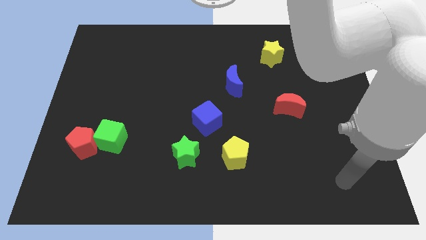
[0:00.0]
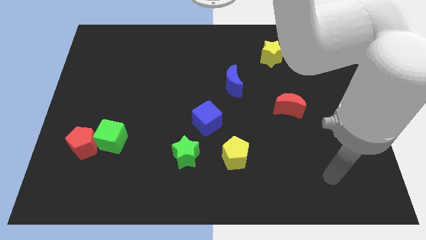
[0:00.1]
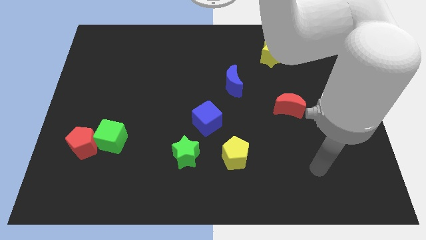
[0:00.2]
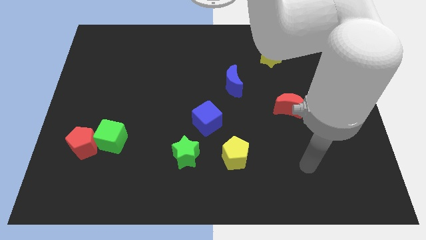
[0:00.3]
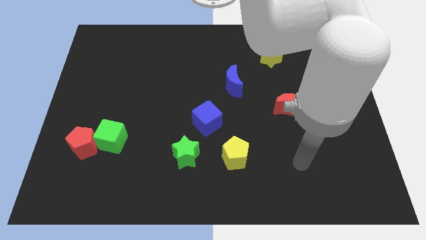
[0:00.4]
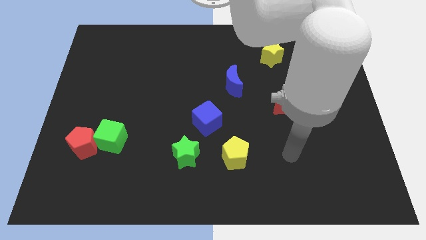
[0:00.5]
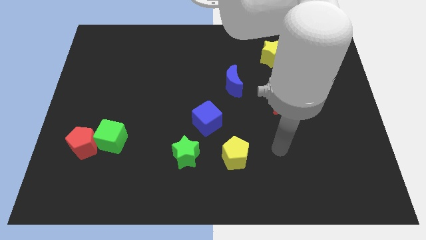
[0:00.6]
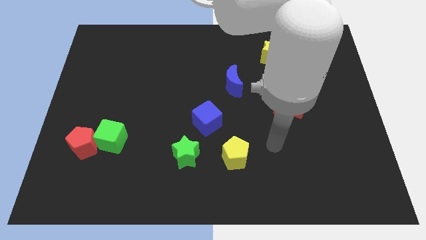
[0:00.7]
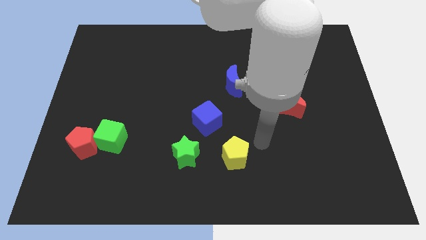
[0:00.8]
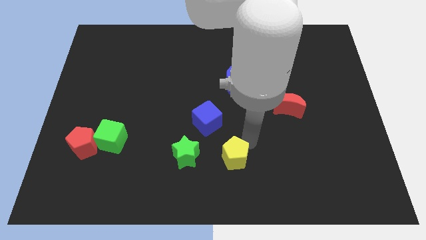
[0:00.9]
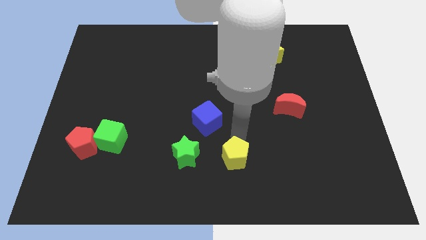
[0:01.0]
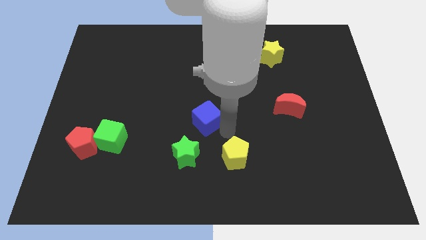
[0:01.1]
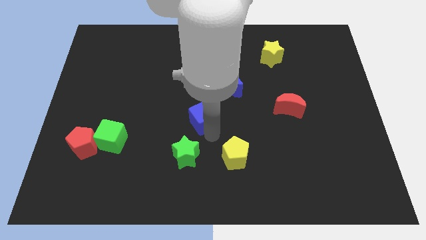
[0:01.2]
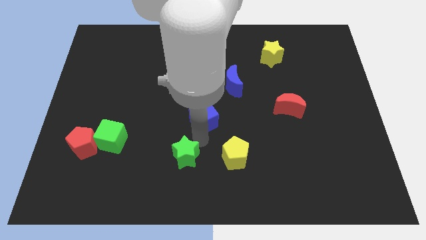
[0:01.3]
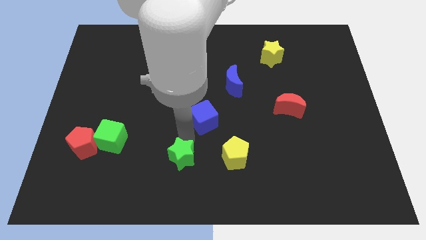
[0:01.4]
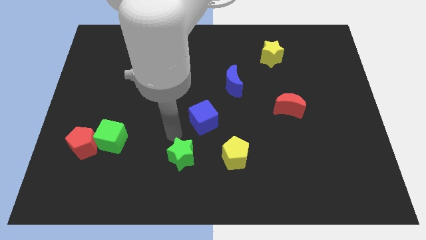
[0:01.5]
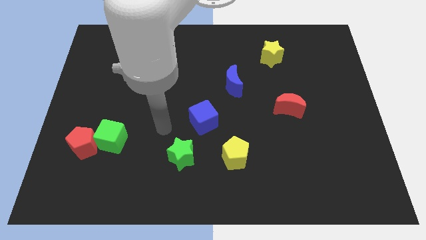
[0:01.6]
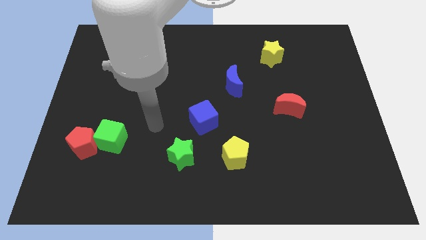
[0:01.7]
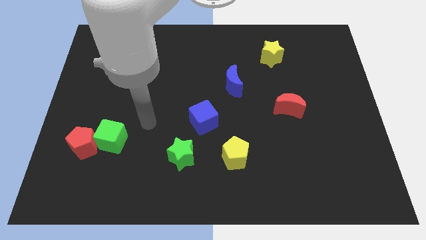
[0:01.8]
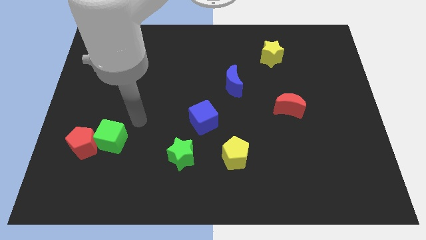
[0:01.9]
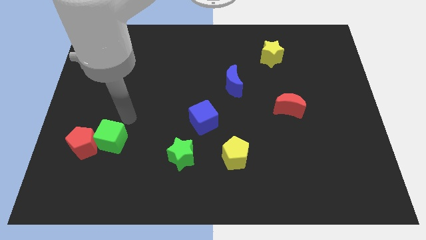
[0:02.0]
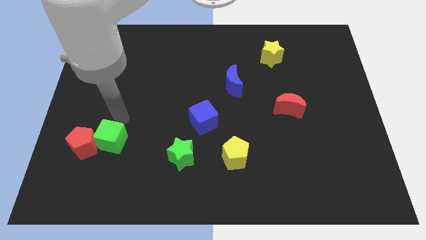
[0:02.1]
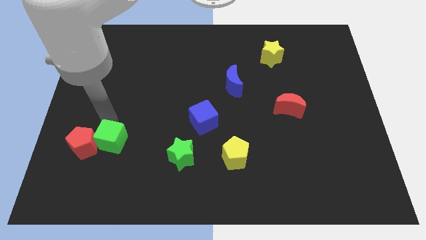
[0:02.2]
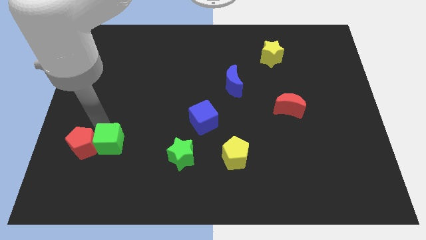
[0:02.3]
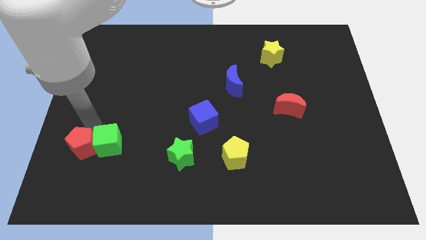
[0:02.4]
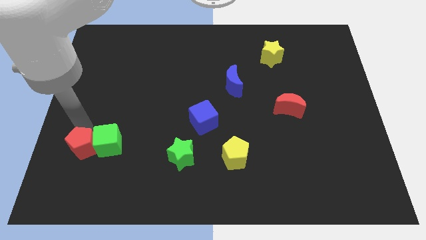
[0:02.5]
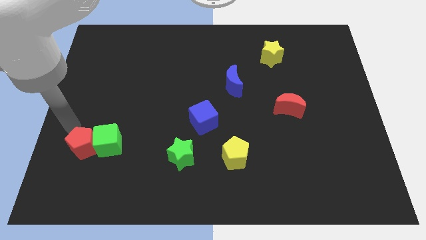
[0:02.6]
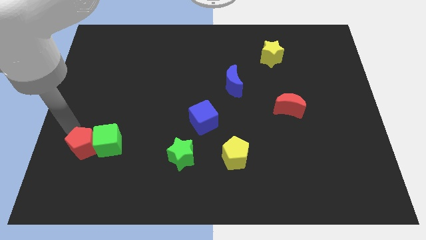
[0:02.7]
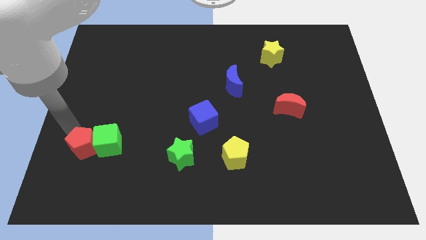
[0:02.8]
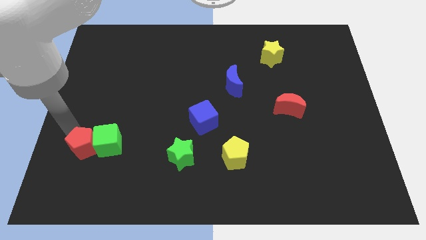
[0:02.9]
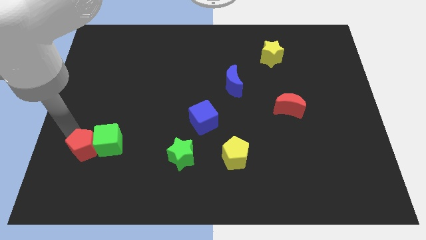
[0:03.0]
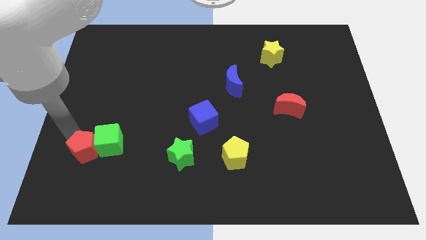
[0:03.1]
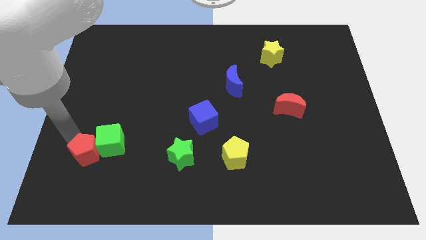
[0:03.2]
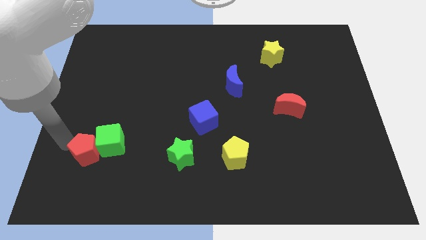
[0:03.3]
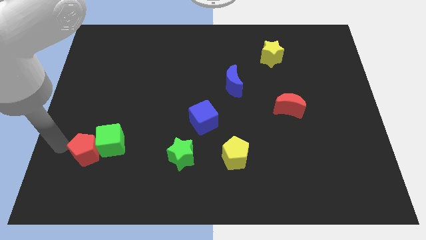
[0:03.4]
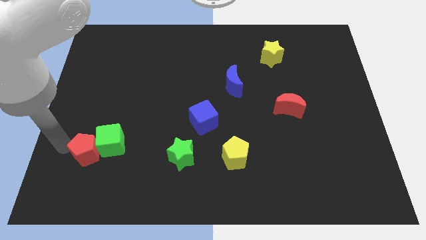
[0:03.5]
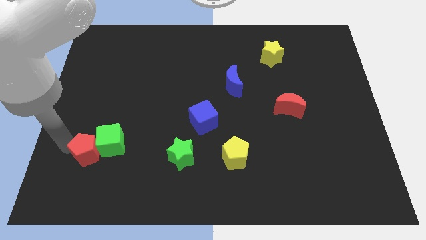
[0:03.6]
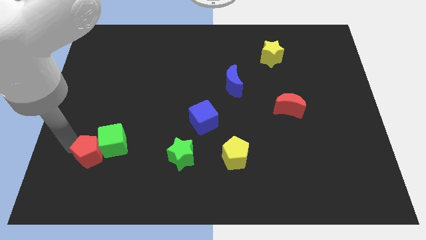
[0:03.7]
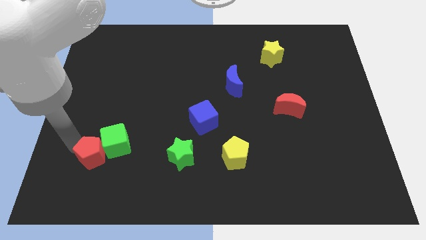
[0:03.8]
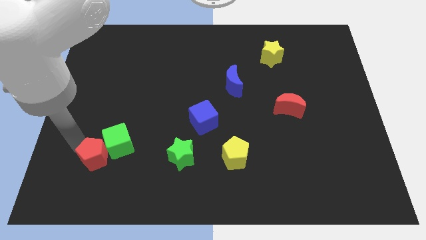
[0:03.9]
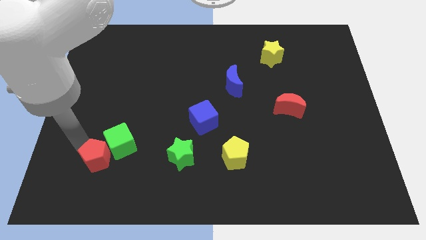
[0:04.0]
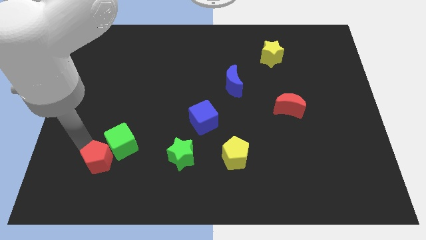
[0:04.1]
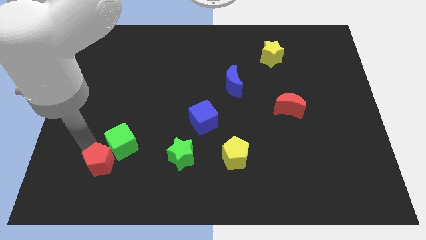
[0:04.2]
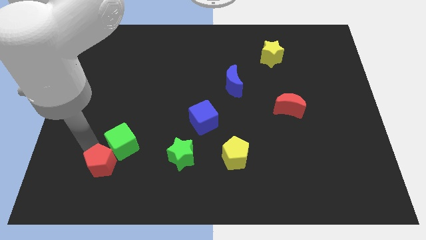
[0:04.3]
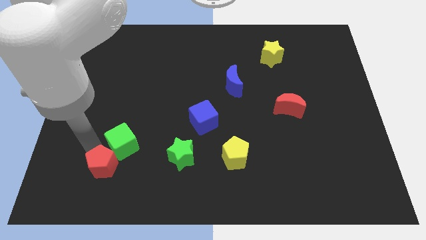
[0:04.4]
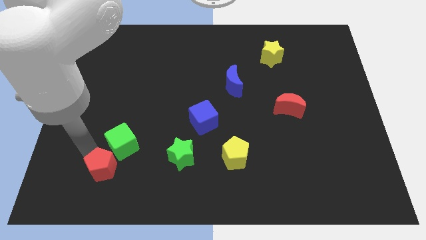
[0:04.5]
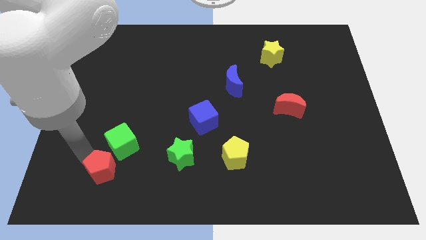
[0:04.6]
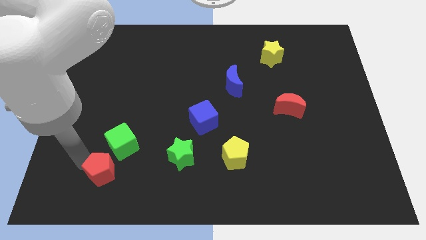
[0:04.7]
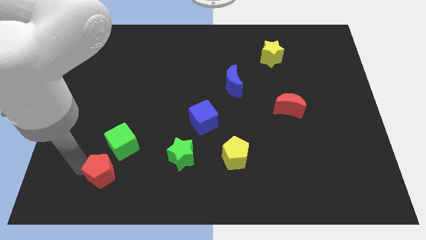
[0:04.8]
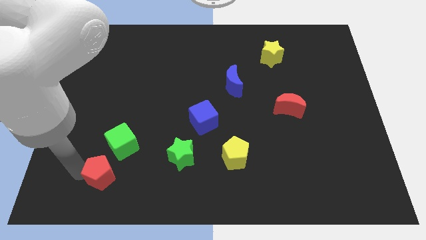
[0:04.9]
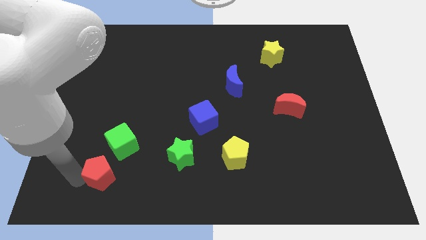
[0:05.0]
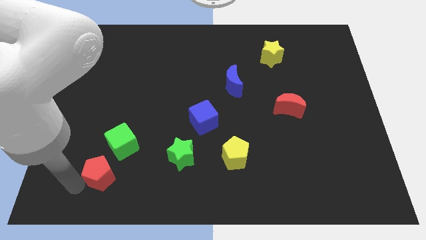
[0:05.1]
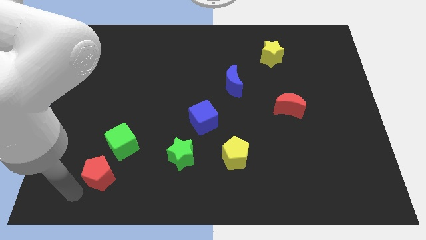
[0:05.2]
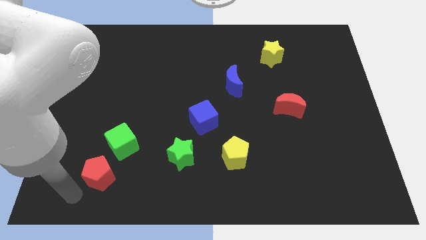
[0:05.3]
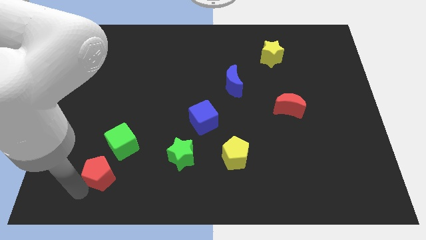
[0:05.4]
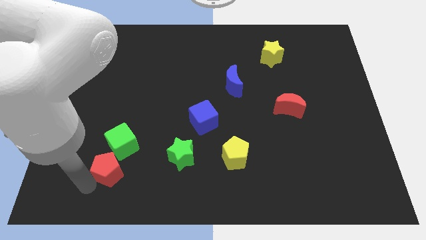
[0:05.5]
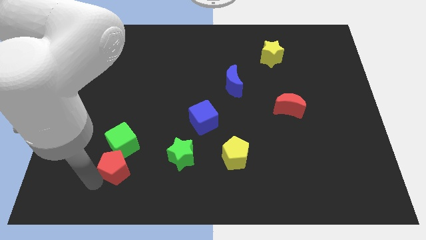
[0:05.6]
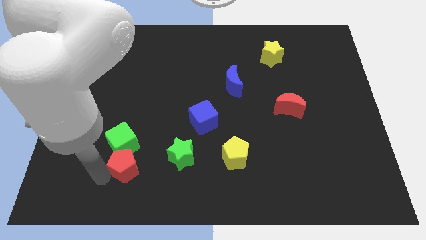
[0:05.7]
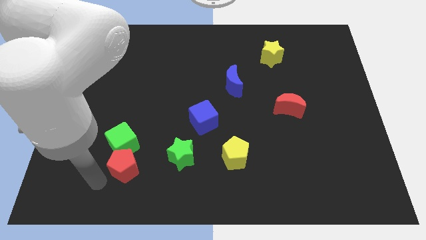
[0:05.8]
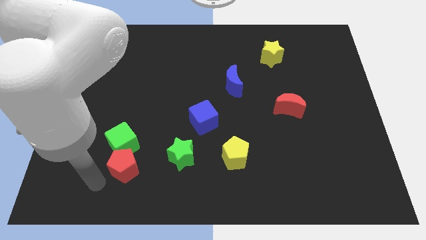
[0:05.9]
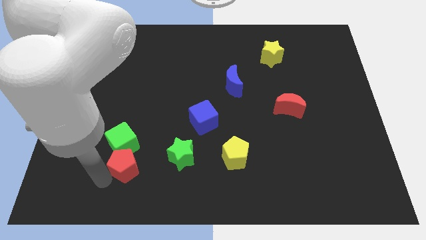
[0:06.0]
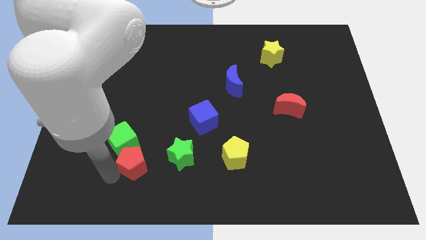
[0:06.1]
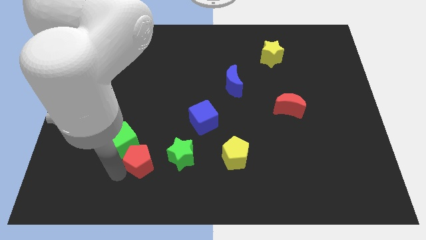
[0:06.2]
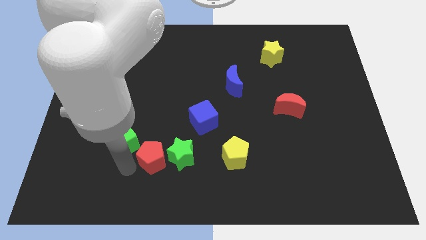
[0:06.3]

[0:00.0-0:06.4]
slide the red pentagon close to the green star

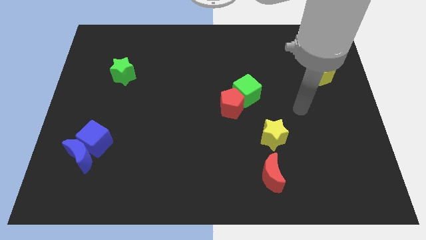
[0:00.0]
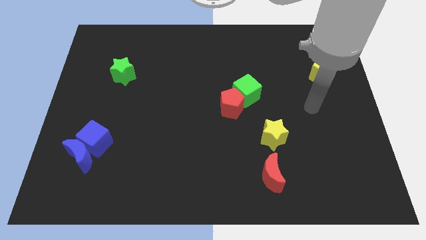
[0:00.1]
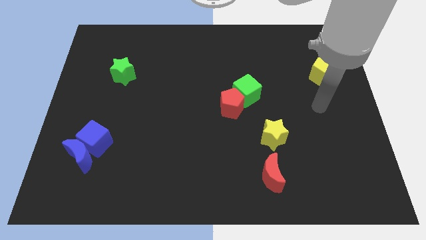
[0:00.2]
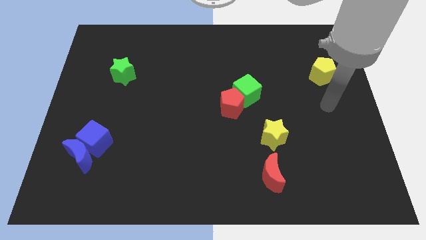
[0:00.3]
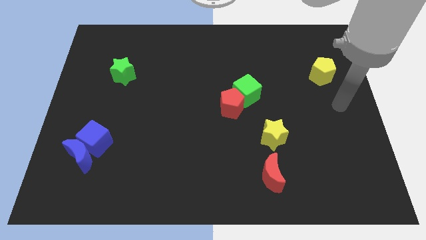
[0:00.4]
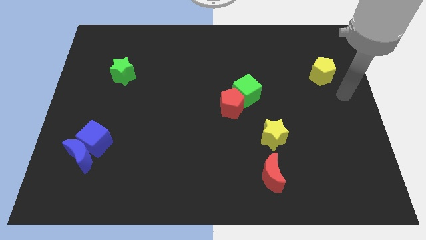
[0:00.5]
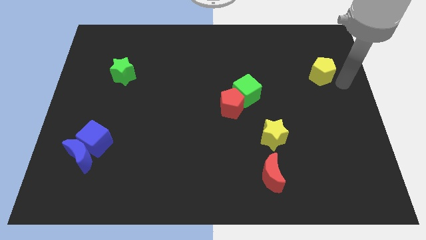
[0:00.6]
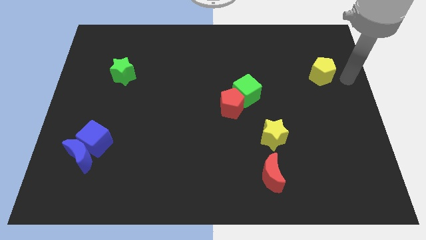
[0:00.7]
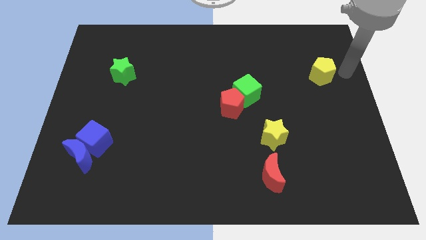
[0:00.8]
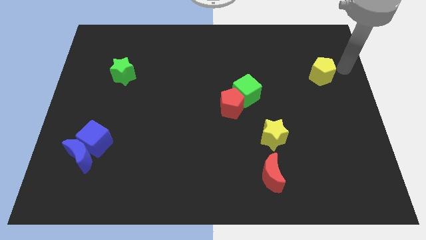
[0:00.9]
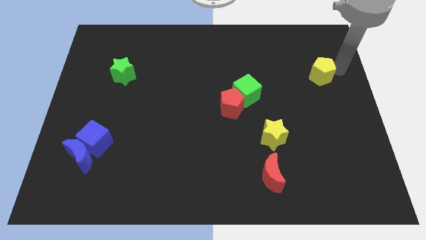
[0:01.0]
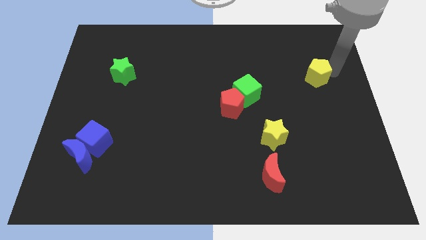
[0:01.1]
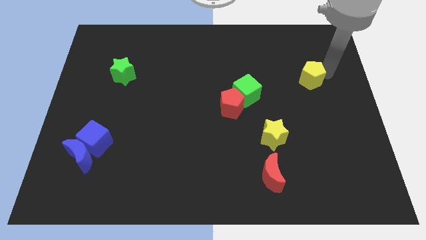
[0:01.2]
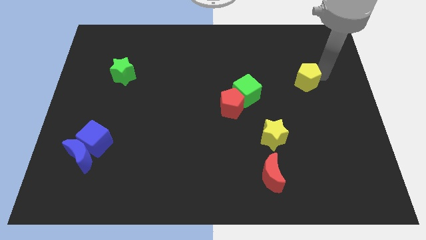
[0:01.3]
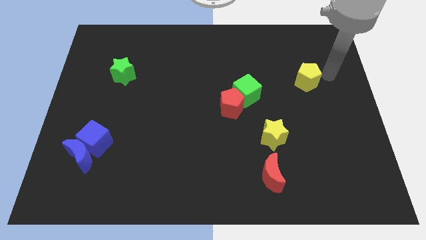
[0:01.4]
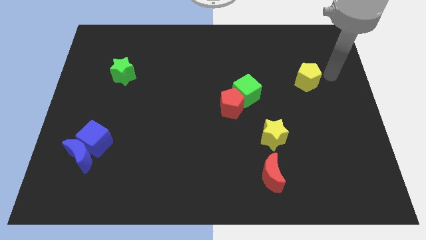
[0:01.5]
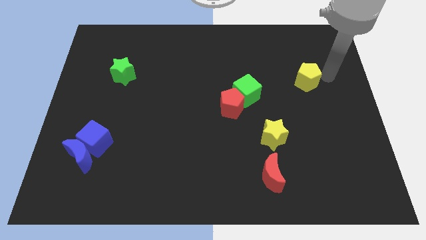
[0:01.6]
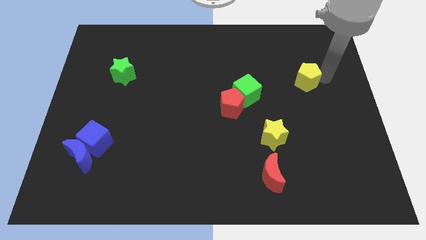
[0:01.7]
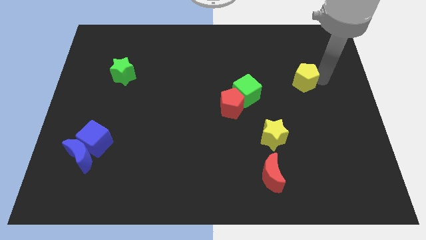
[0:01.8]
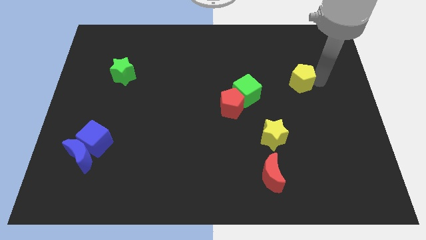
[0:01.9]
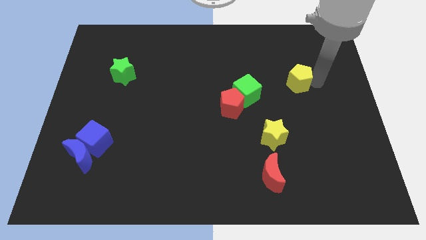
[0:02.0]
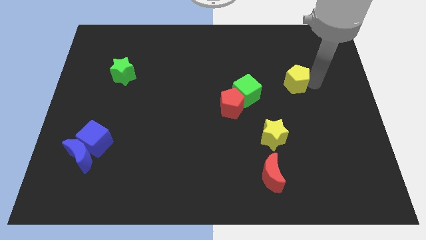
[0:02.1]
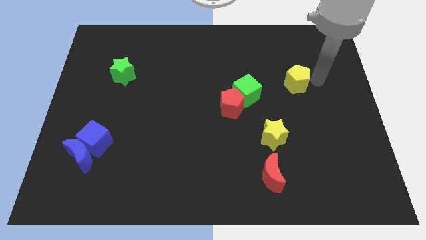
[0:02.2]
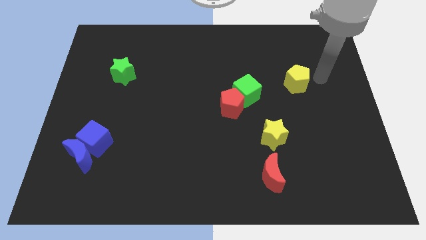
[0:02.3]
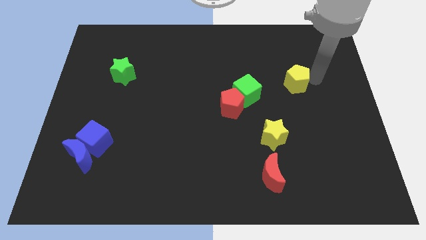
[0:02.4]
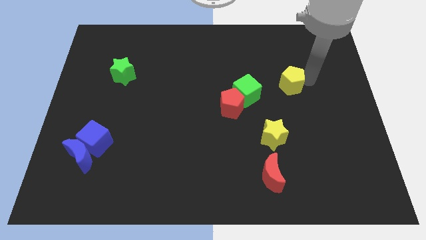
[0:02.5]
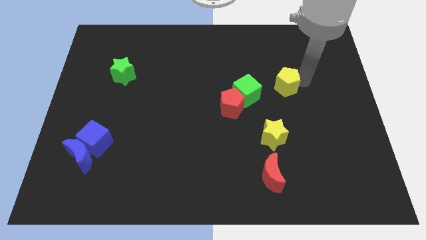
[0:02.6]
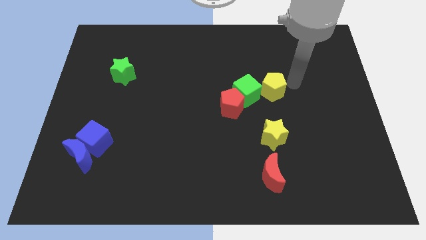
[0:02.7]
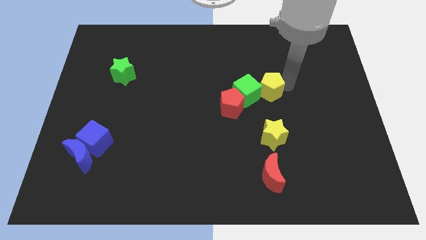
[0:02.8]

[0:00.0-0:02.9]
move the yellow pentagon towards the green cube
